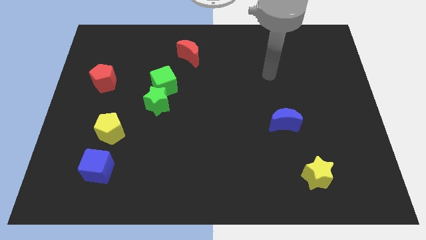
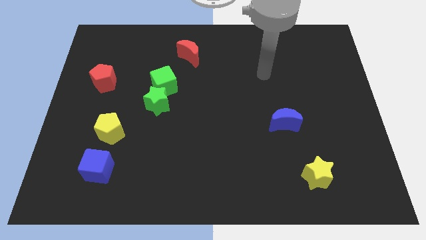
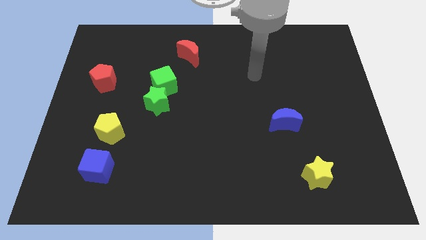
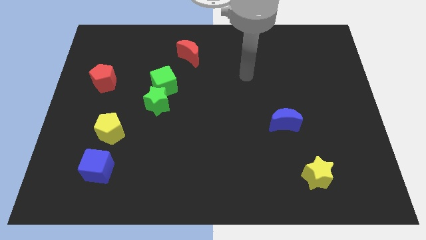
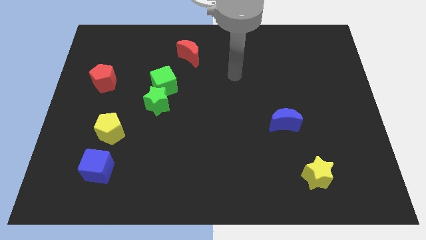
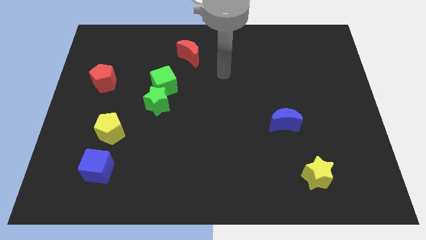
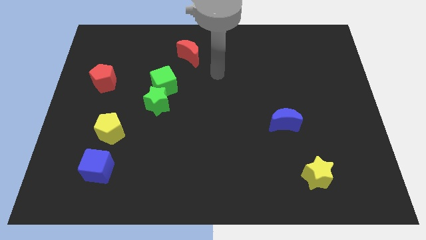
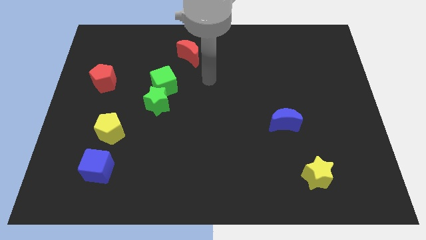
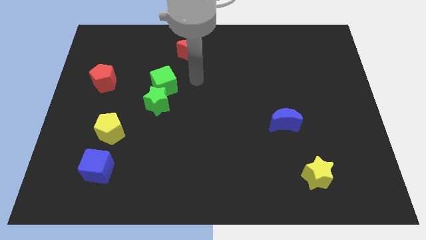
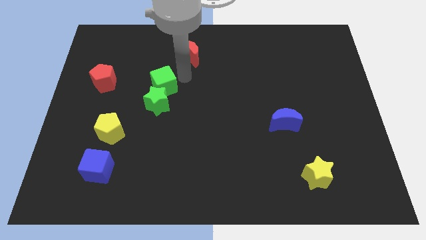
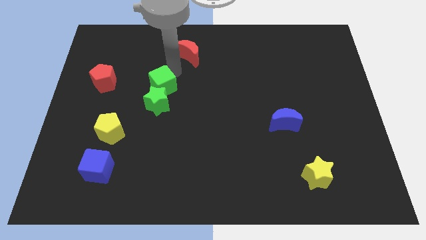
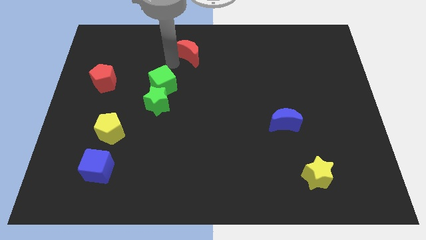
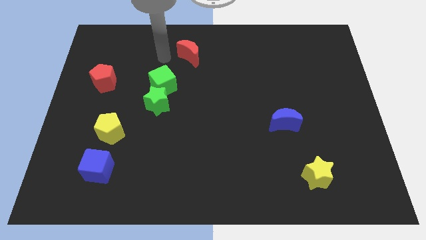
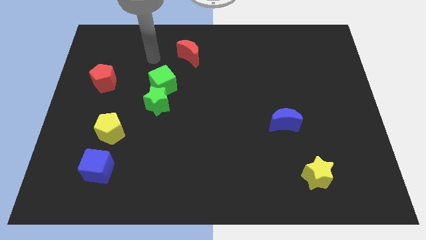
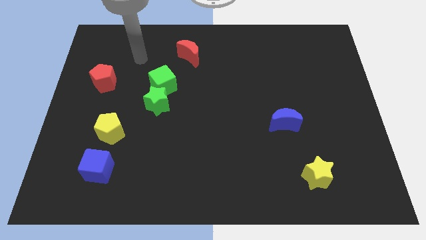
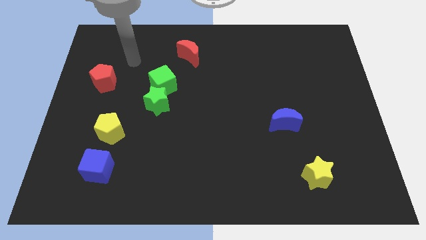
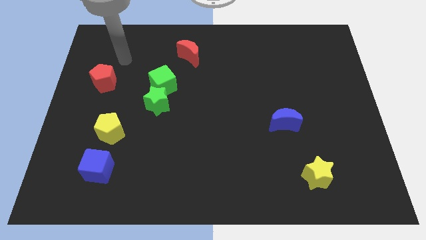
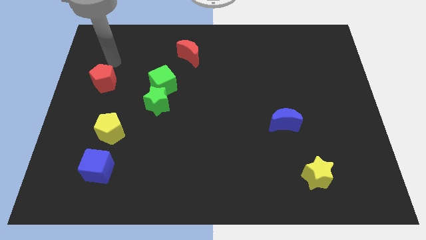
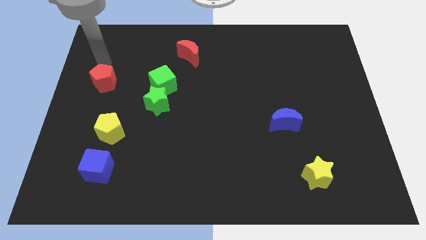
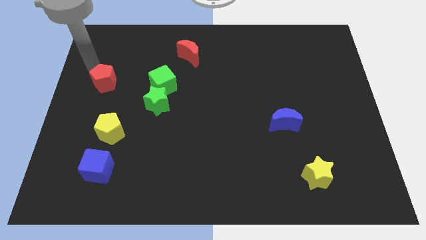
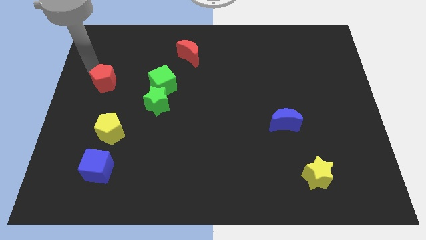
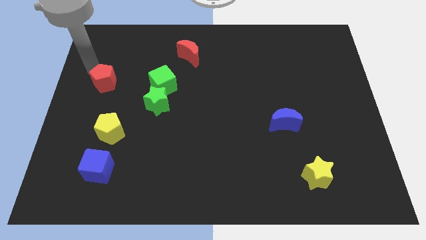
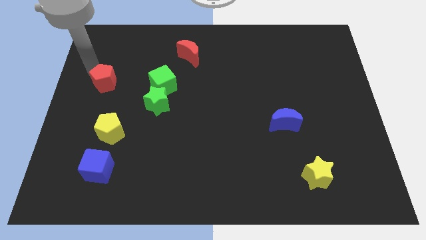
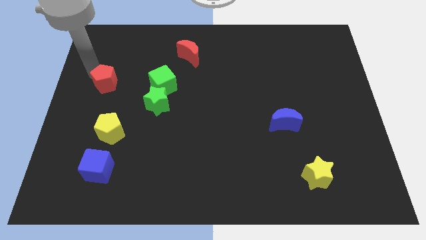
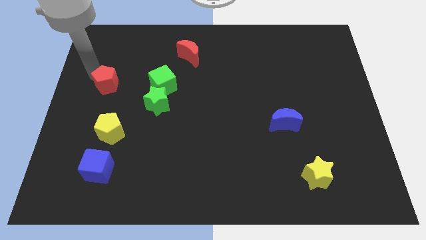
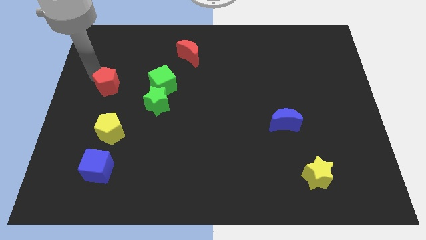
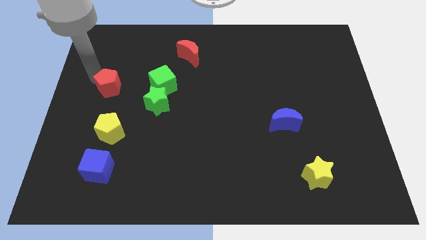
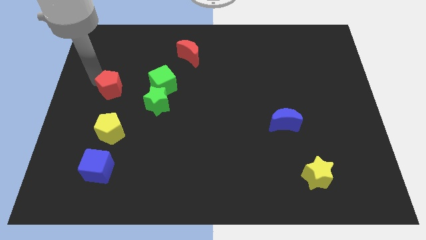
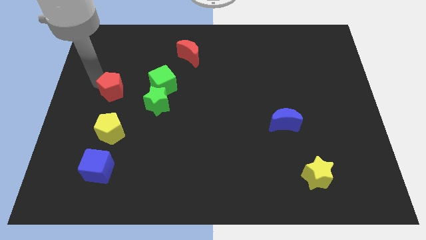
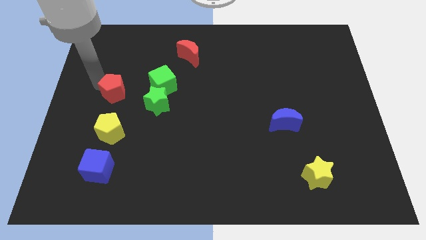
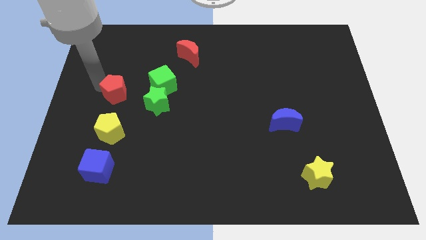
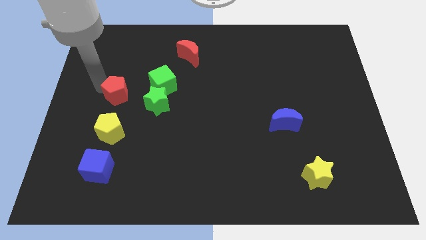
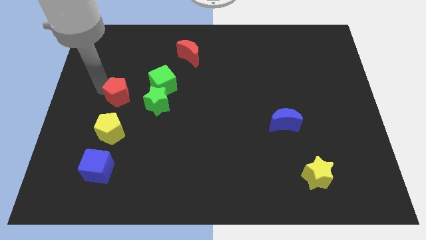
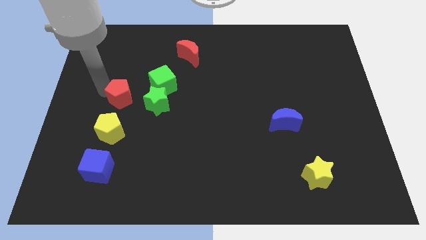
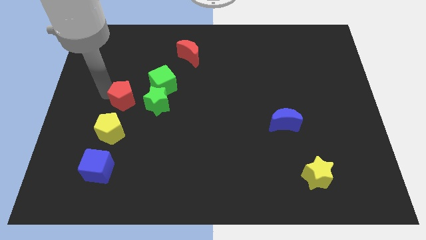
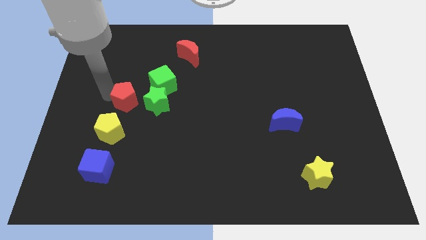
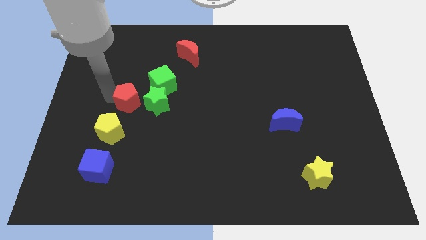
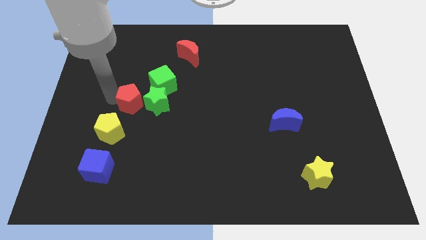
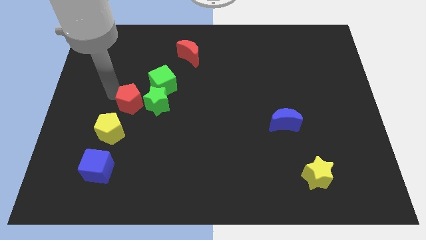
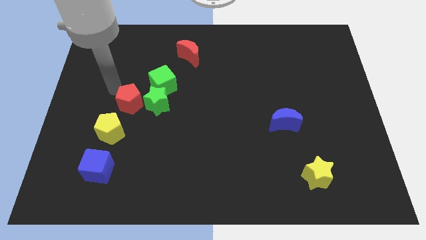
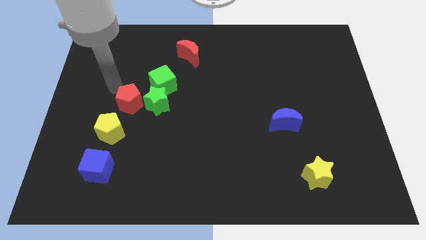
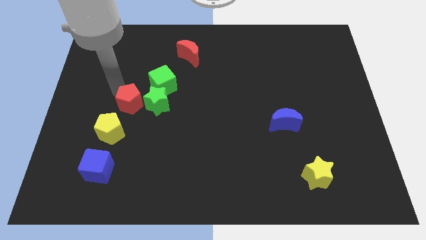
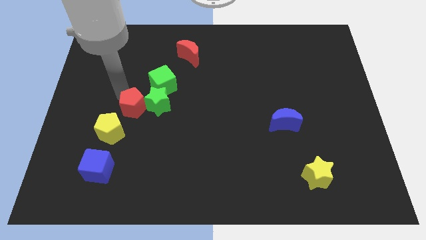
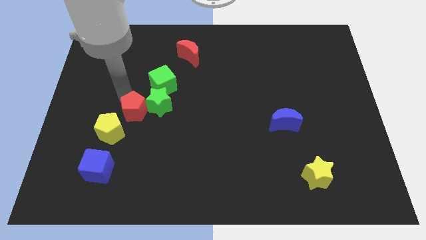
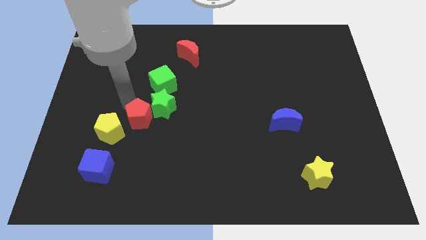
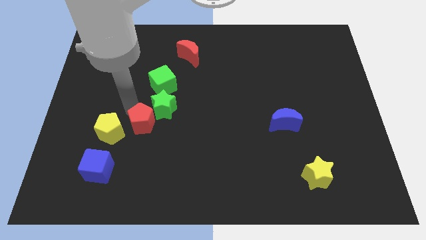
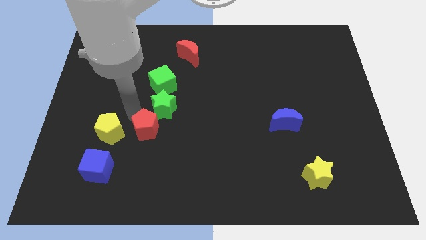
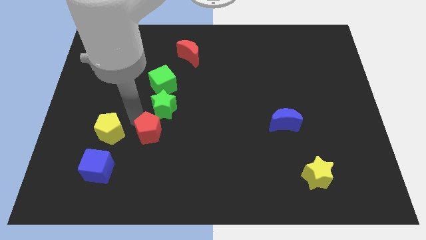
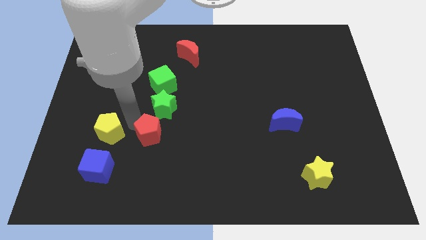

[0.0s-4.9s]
push the red pentagon downwards and right diagonally

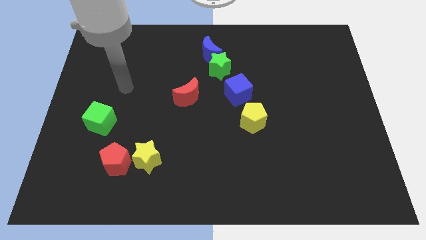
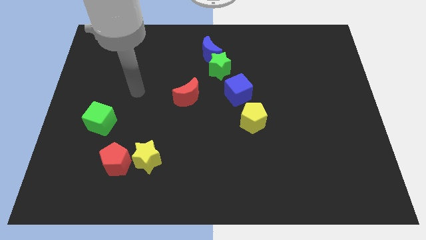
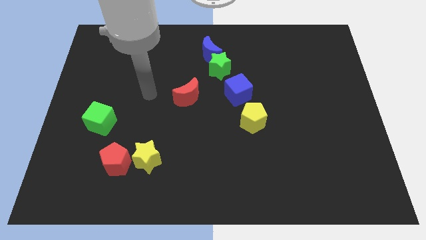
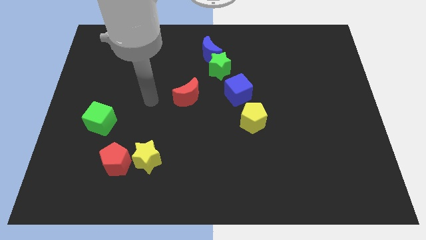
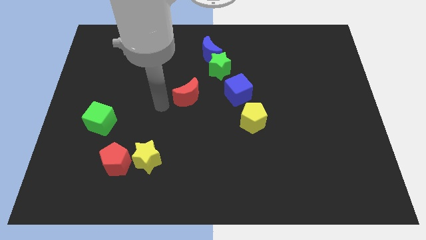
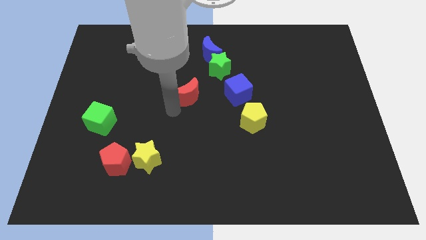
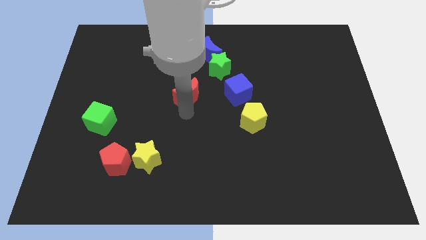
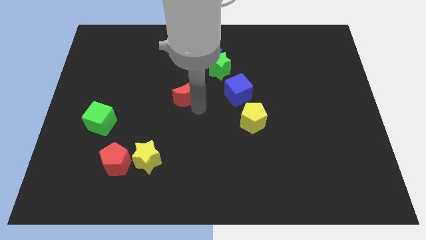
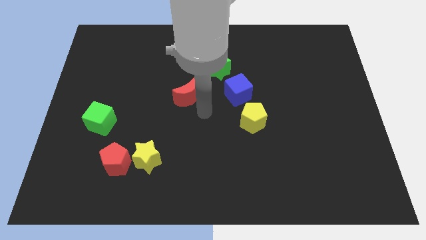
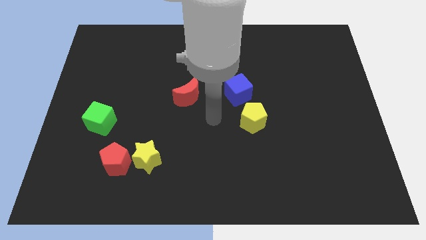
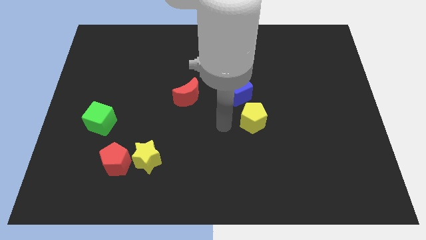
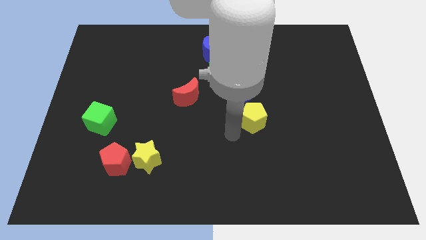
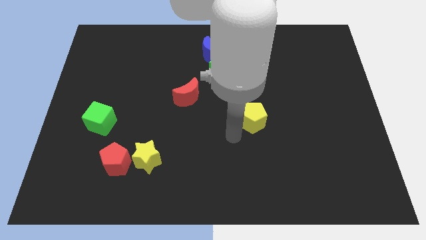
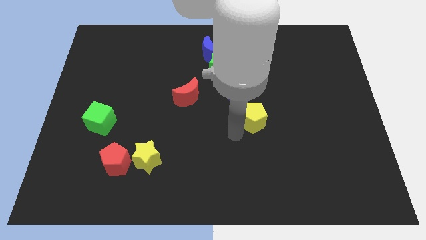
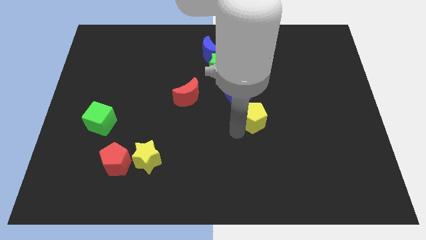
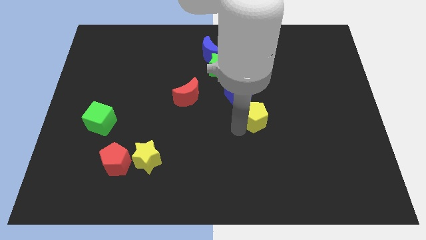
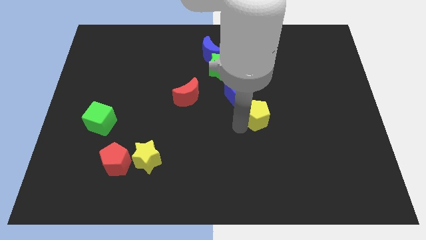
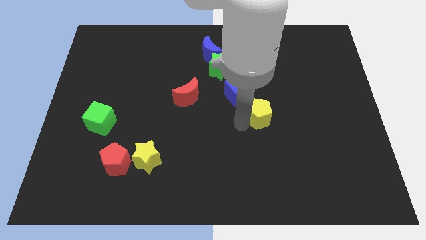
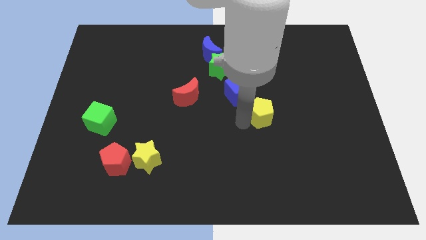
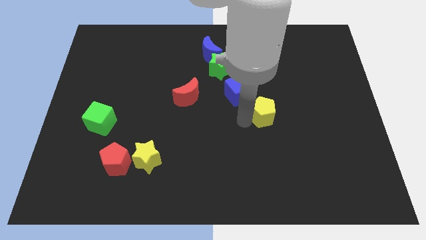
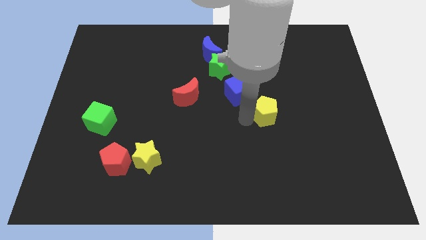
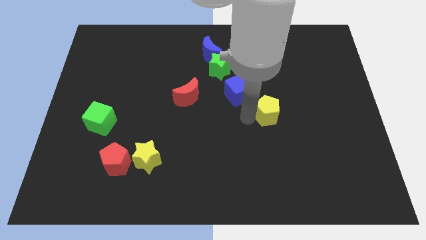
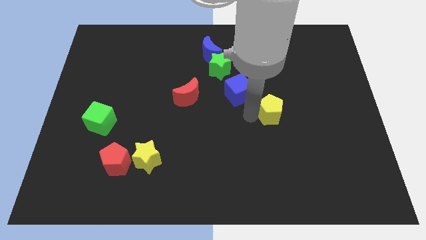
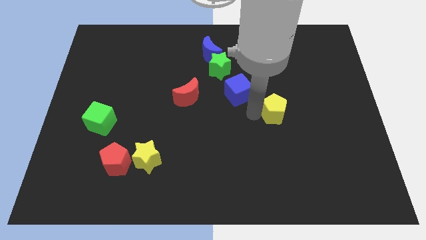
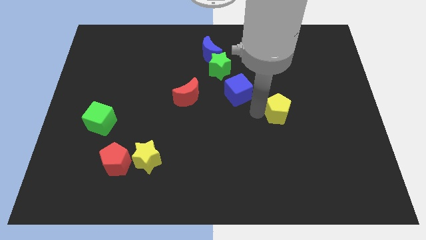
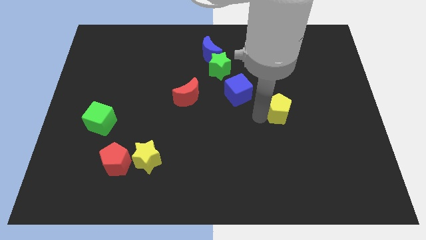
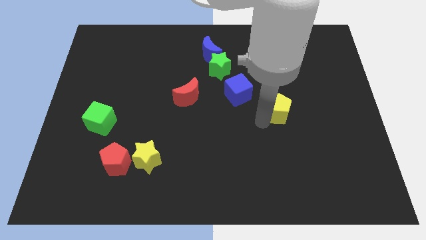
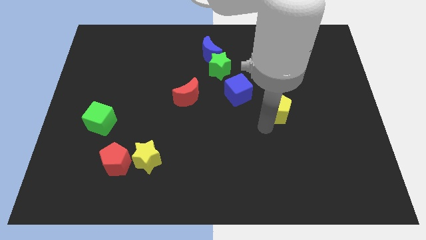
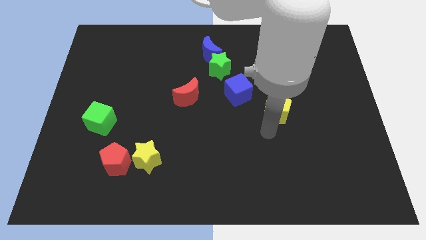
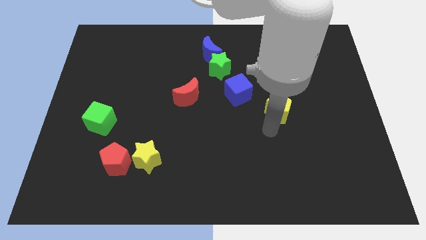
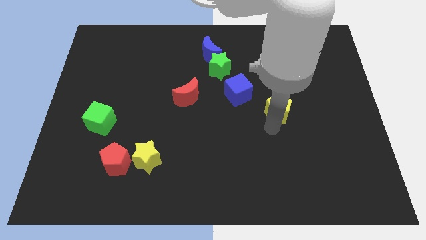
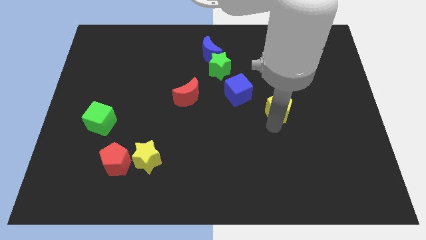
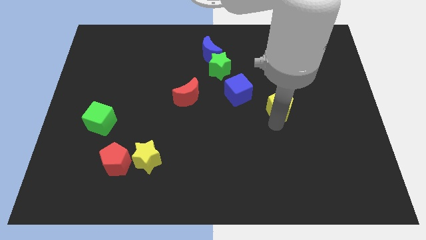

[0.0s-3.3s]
slightly move the yellow pentagon diagonally up and to the right

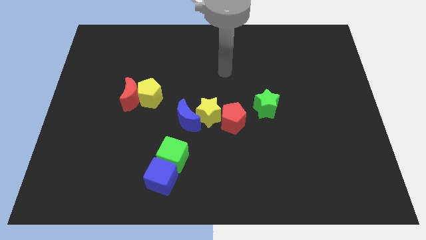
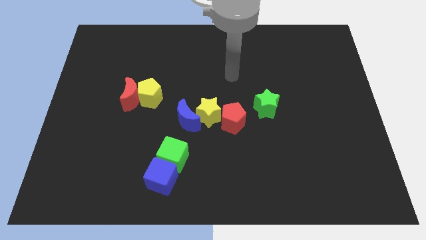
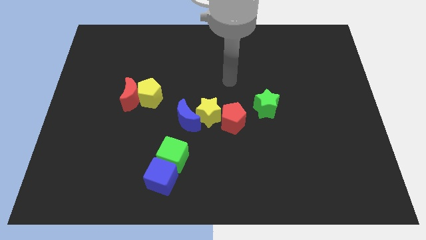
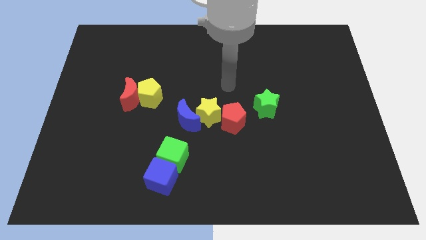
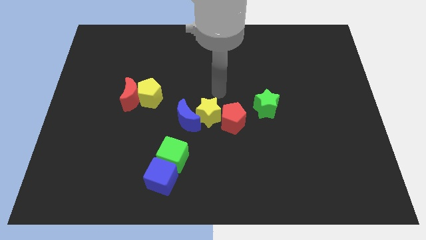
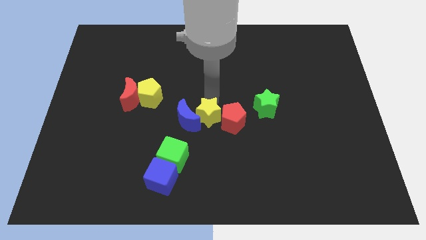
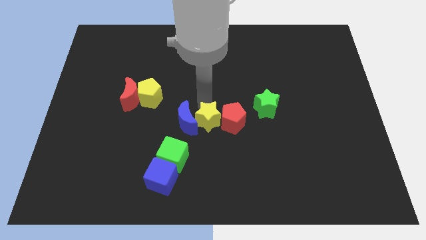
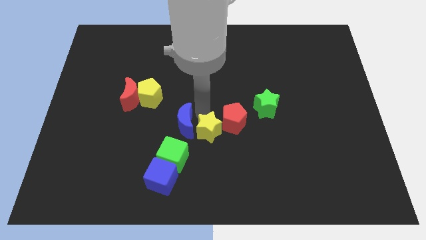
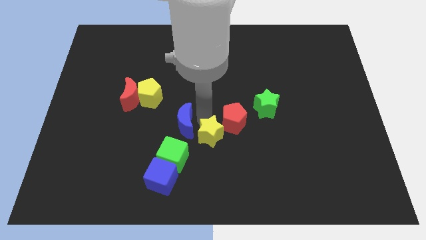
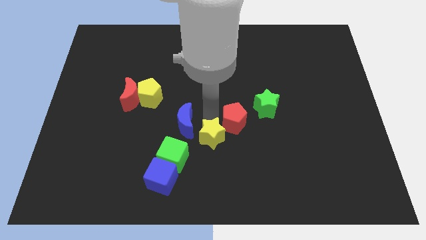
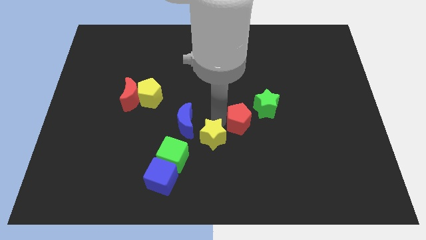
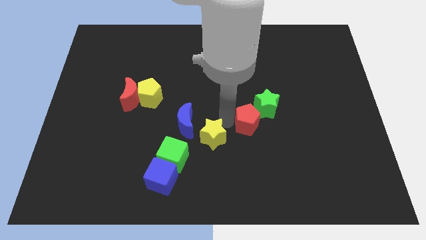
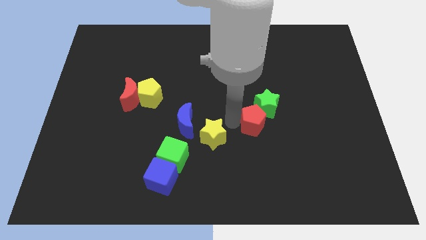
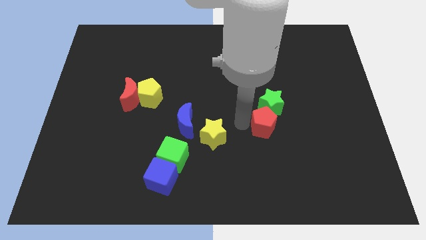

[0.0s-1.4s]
slightly push the red pentagon to the right
